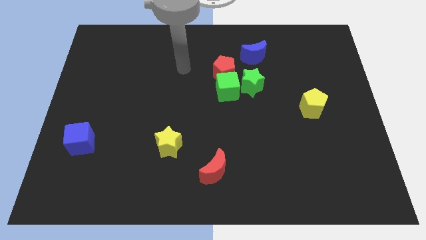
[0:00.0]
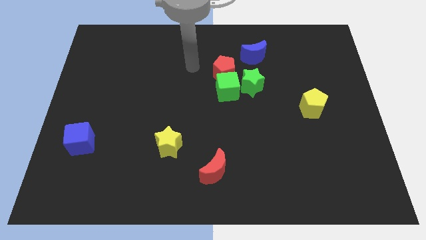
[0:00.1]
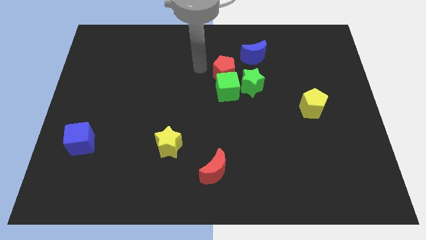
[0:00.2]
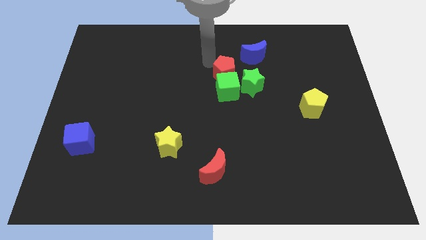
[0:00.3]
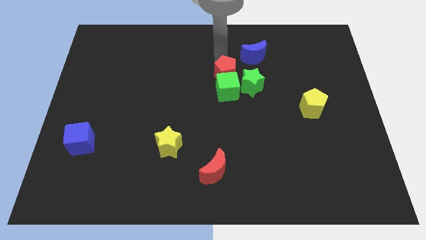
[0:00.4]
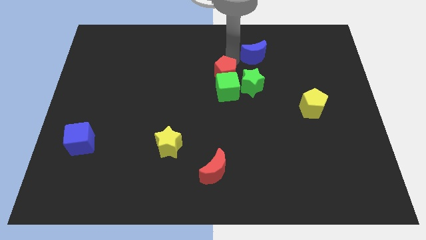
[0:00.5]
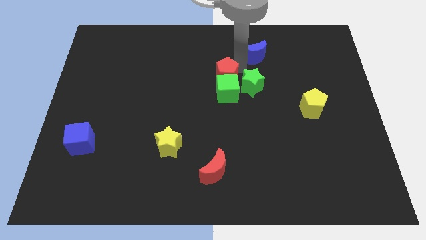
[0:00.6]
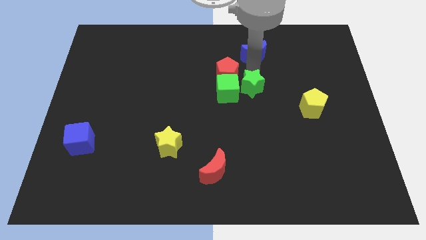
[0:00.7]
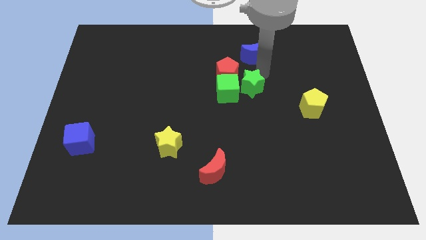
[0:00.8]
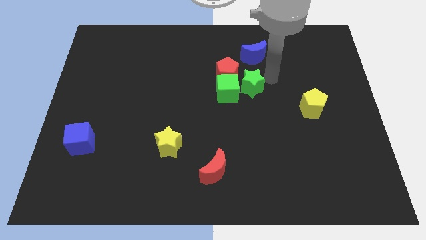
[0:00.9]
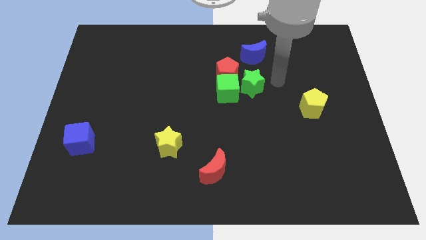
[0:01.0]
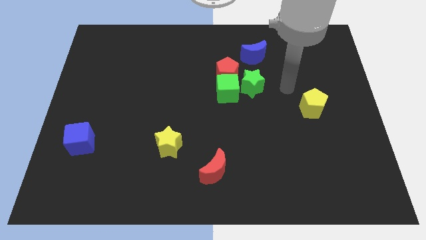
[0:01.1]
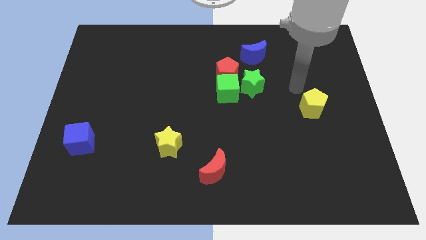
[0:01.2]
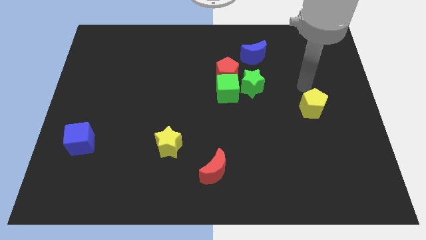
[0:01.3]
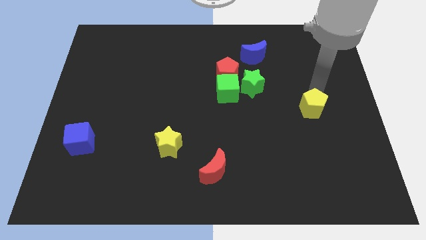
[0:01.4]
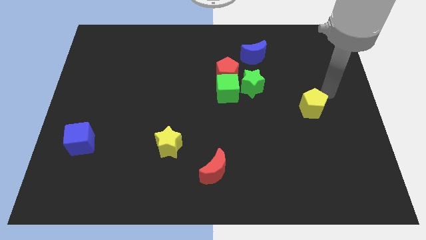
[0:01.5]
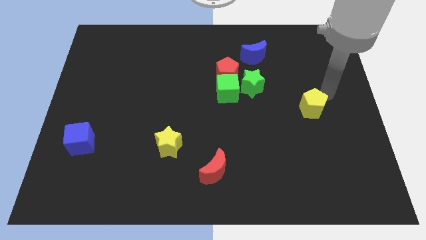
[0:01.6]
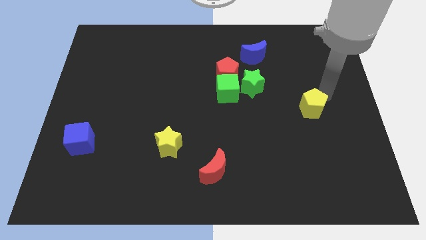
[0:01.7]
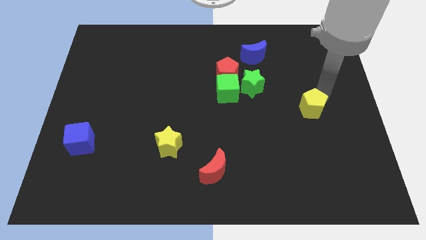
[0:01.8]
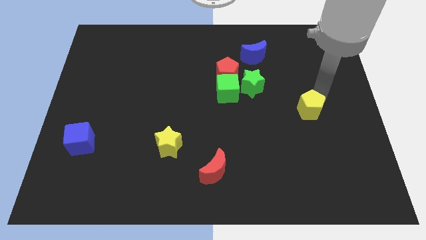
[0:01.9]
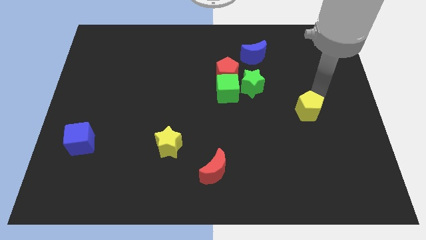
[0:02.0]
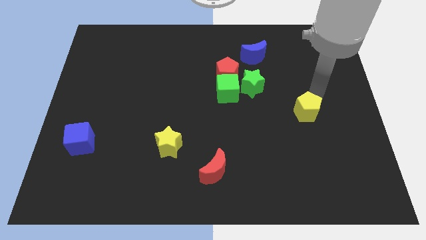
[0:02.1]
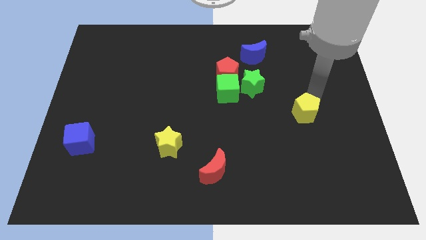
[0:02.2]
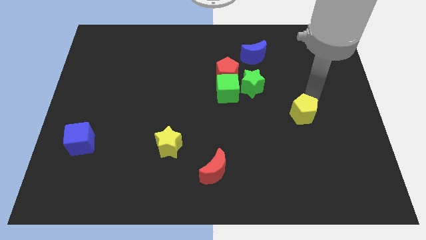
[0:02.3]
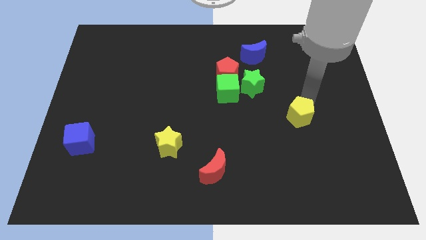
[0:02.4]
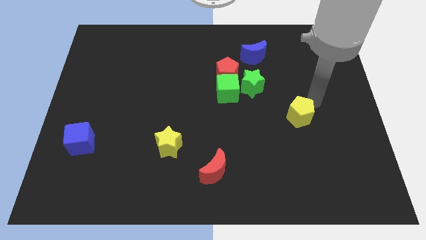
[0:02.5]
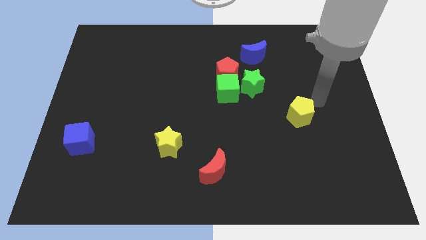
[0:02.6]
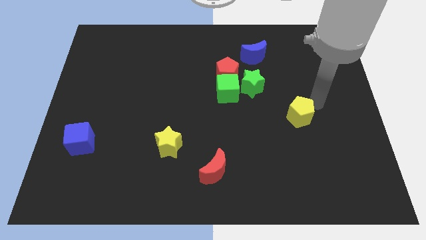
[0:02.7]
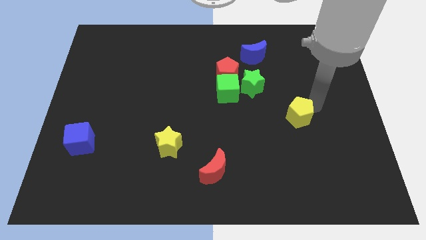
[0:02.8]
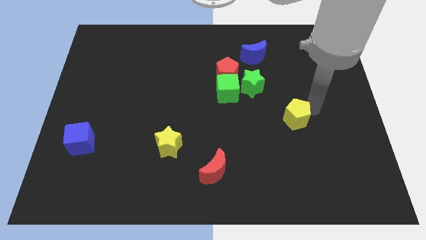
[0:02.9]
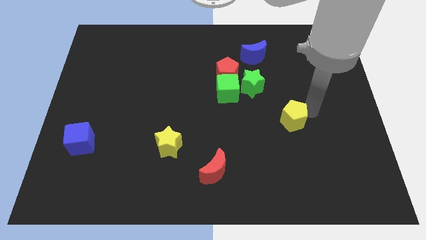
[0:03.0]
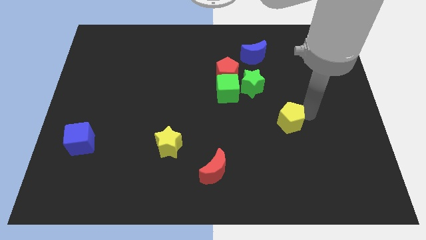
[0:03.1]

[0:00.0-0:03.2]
move the yellow pentagon down and then to the left a bit

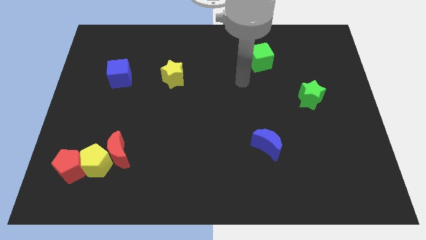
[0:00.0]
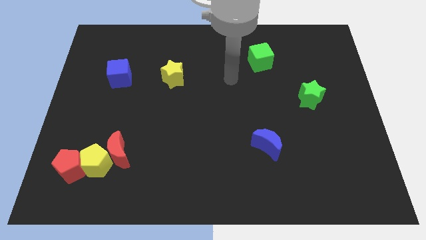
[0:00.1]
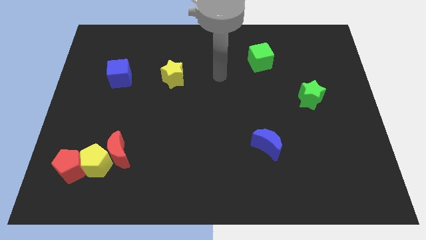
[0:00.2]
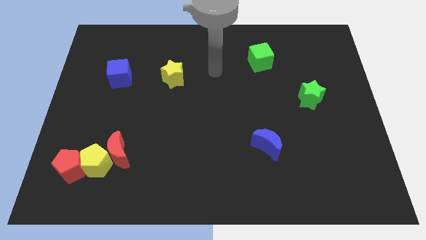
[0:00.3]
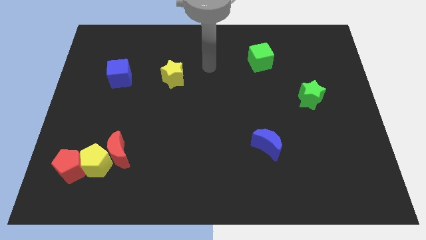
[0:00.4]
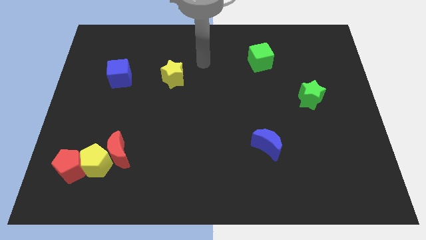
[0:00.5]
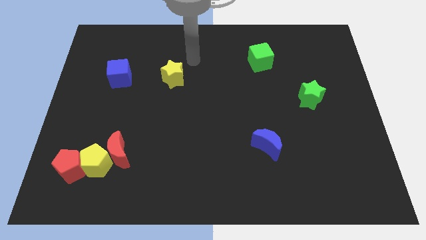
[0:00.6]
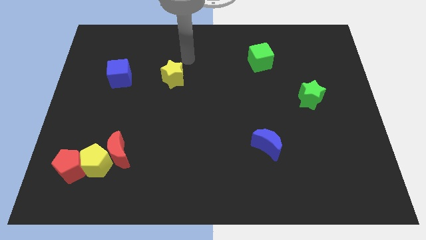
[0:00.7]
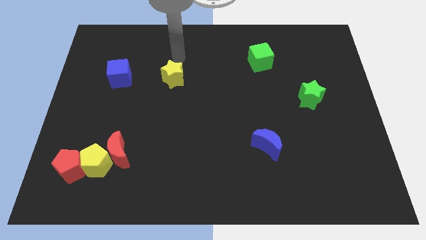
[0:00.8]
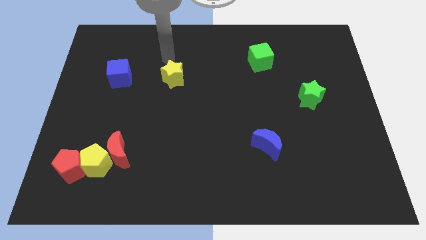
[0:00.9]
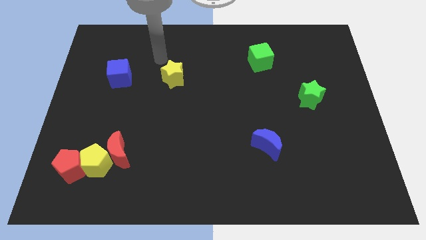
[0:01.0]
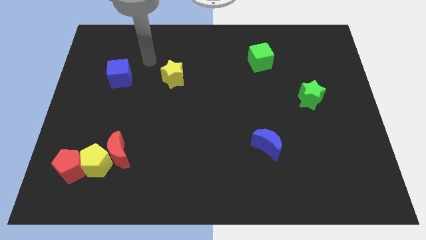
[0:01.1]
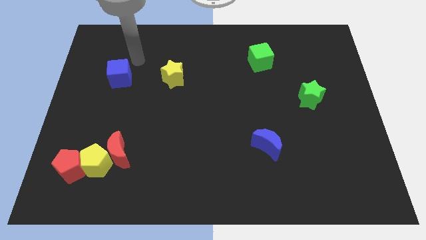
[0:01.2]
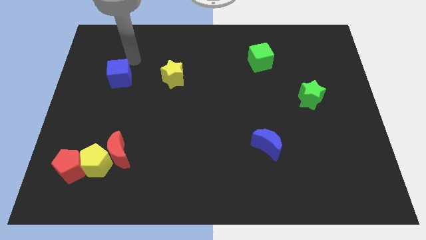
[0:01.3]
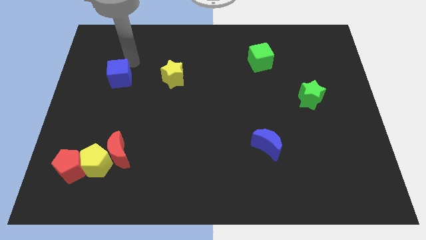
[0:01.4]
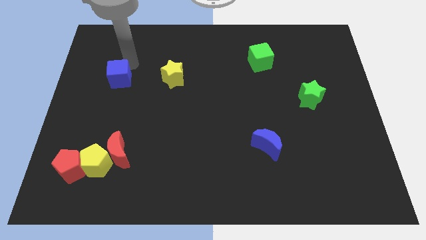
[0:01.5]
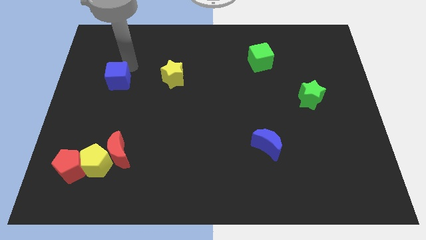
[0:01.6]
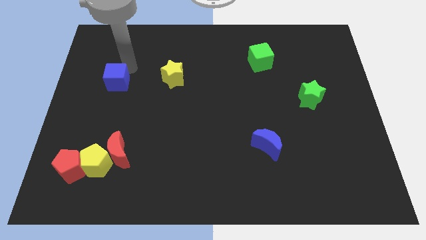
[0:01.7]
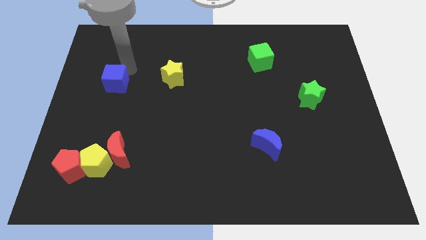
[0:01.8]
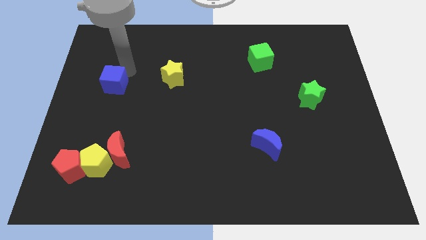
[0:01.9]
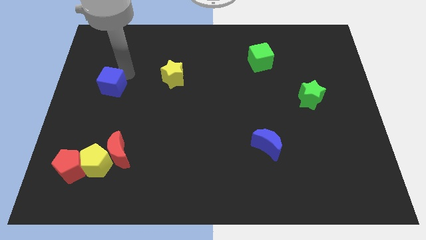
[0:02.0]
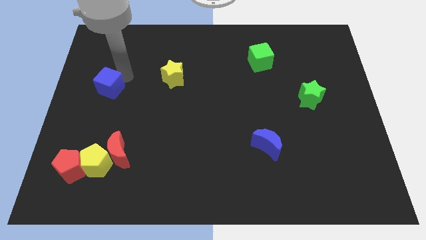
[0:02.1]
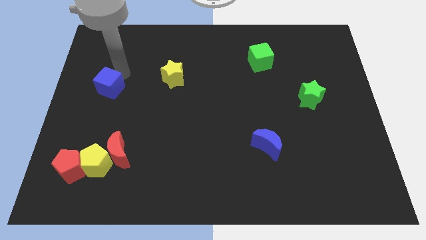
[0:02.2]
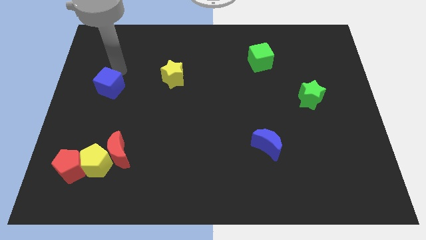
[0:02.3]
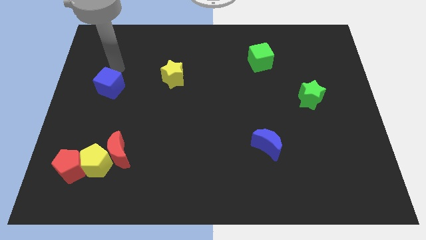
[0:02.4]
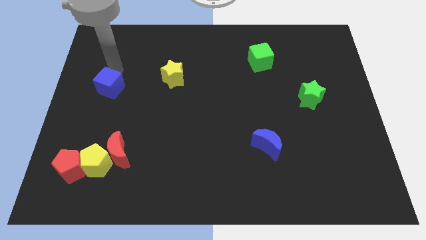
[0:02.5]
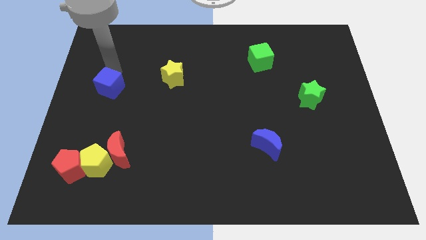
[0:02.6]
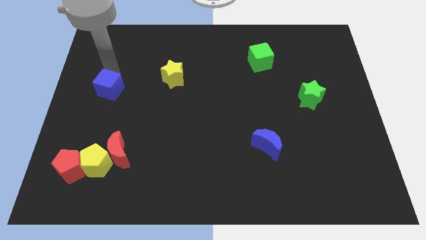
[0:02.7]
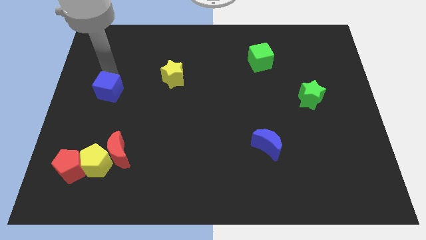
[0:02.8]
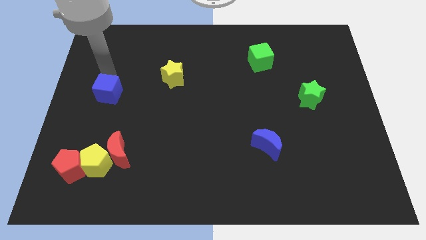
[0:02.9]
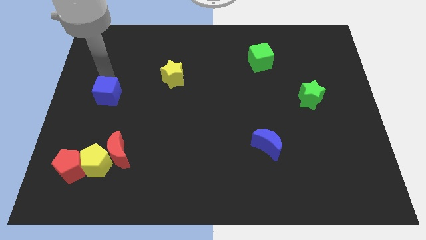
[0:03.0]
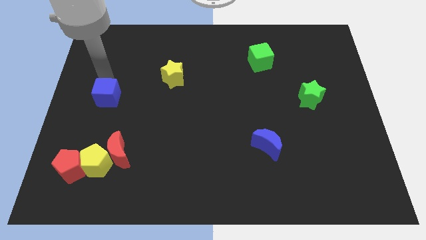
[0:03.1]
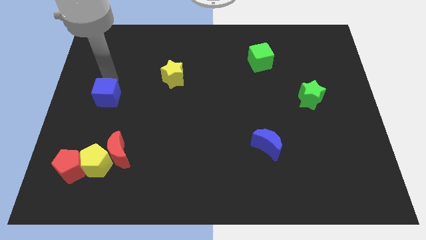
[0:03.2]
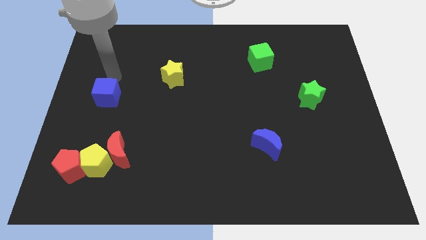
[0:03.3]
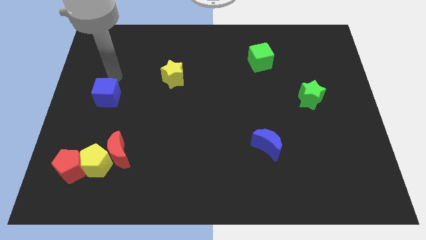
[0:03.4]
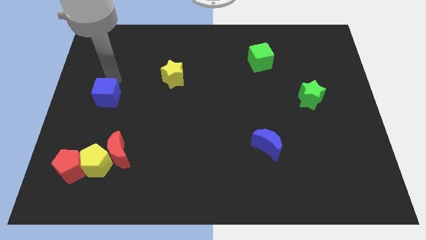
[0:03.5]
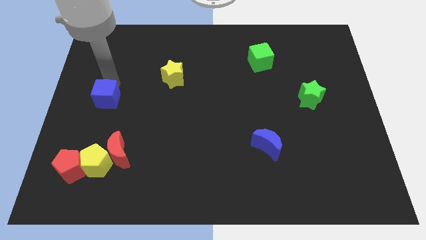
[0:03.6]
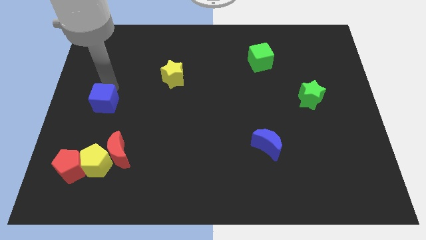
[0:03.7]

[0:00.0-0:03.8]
slightly push the blue cube down

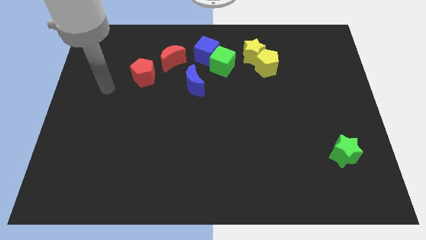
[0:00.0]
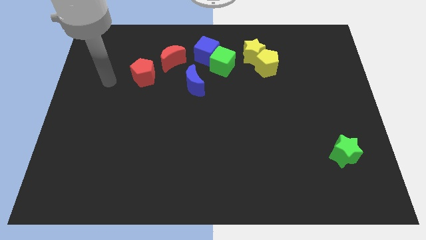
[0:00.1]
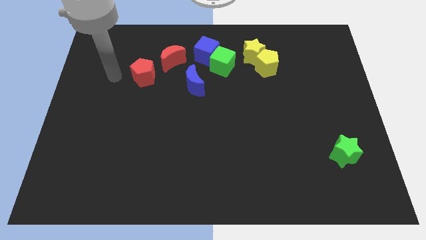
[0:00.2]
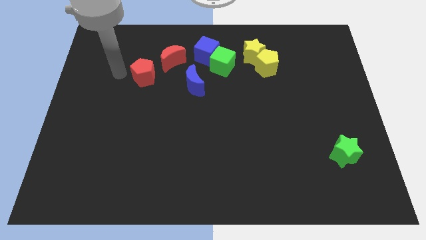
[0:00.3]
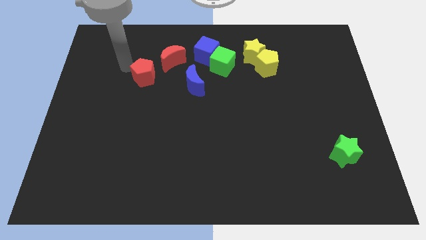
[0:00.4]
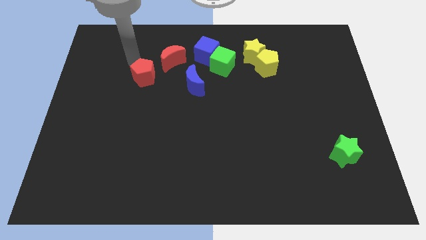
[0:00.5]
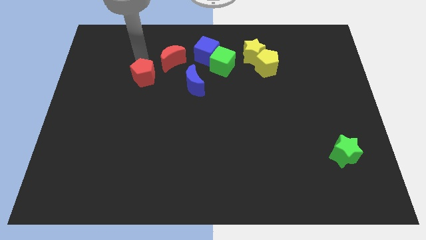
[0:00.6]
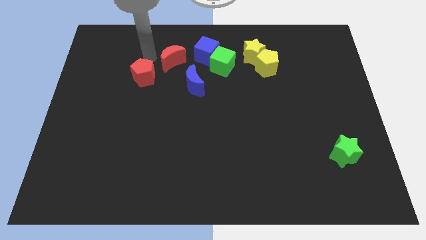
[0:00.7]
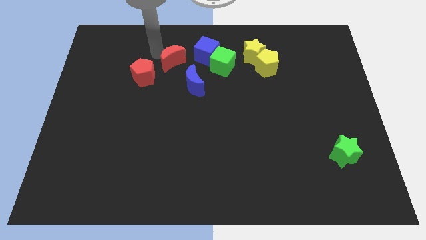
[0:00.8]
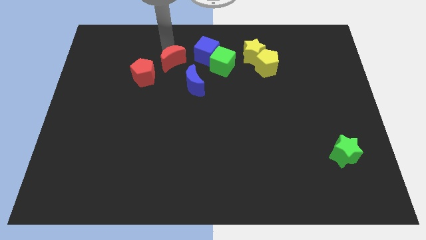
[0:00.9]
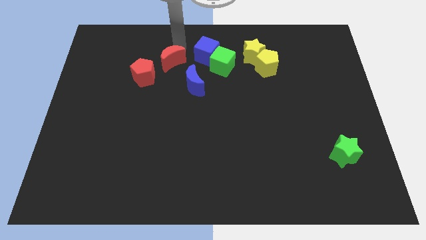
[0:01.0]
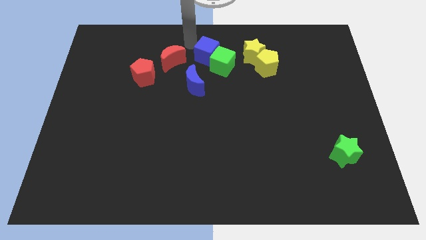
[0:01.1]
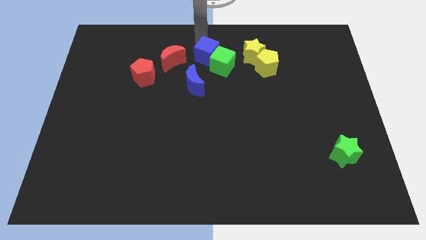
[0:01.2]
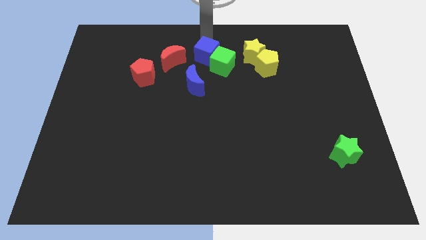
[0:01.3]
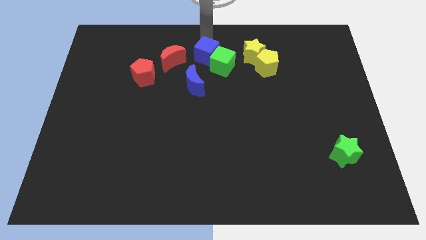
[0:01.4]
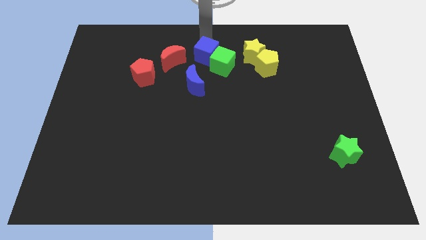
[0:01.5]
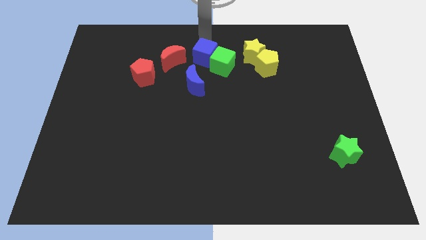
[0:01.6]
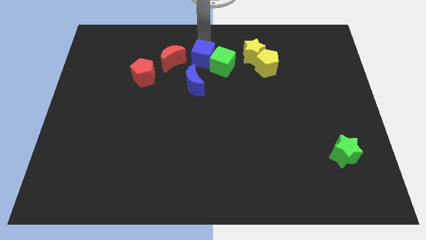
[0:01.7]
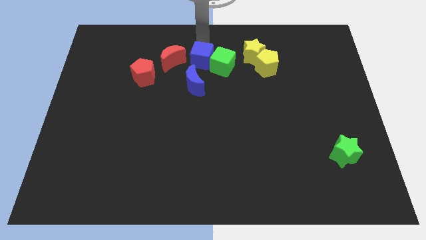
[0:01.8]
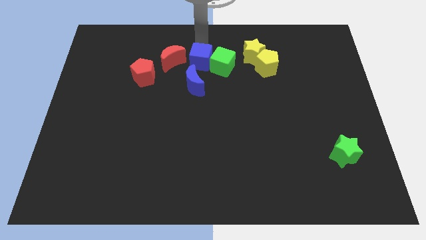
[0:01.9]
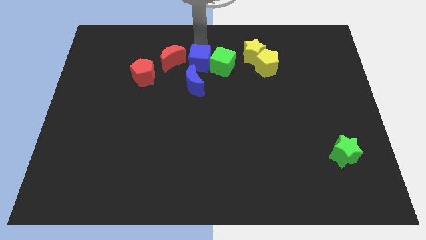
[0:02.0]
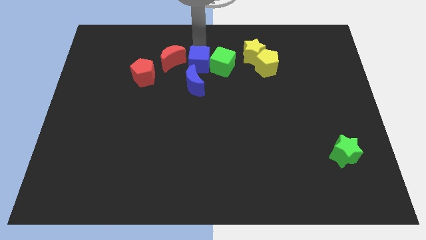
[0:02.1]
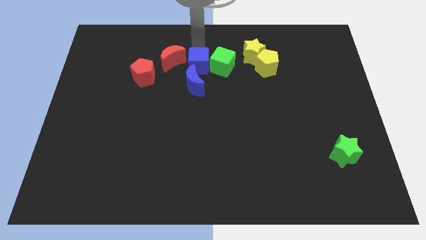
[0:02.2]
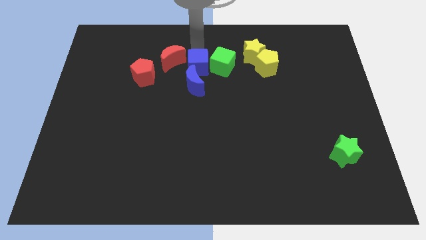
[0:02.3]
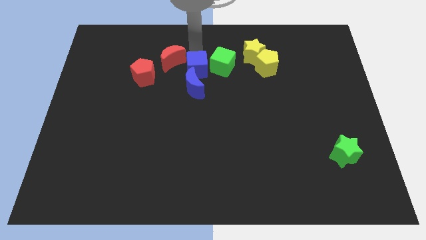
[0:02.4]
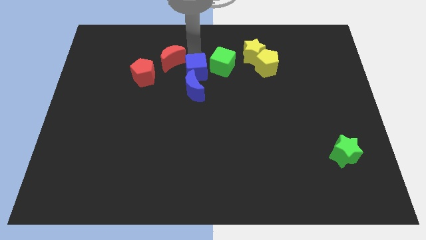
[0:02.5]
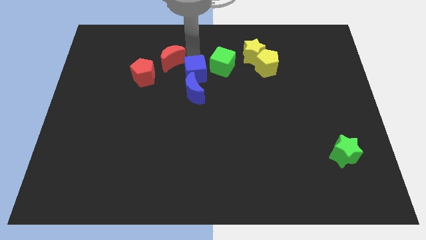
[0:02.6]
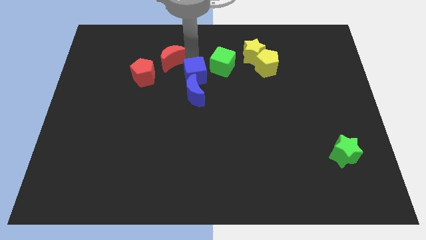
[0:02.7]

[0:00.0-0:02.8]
move the blue cube somewhat down
